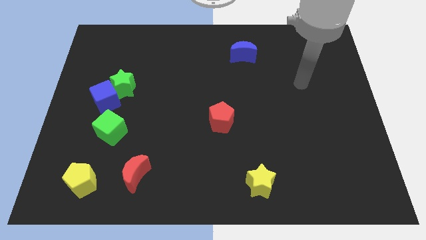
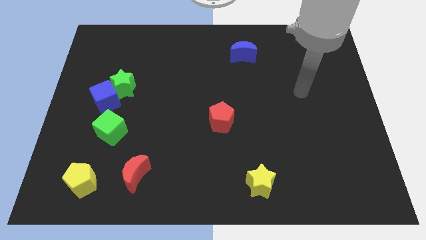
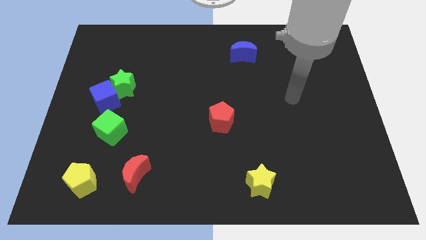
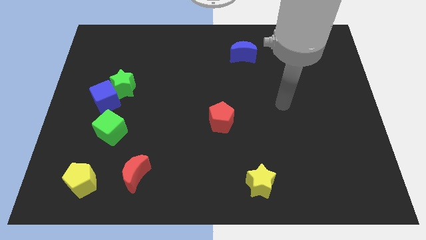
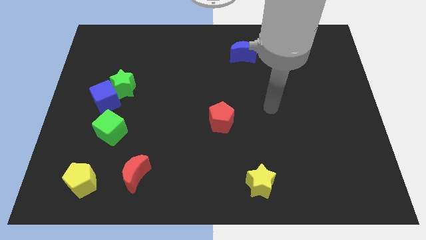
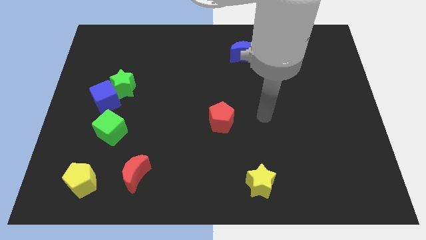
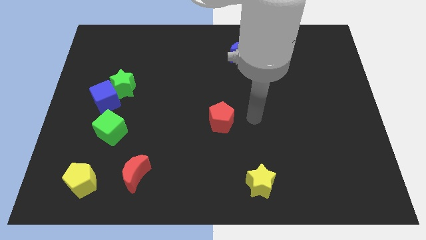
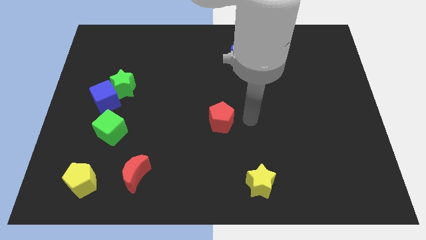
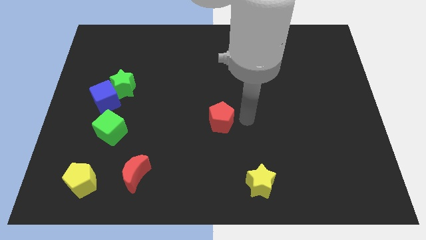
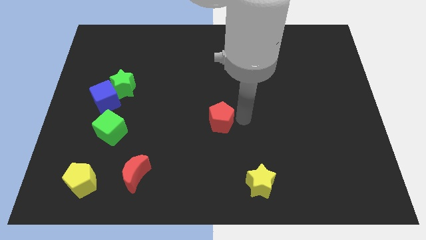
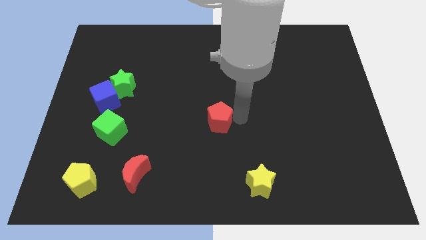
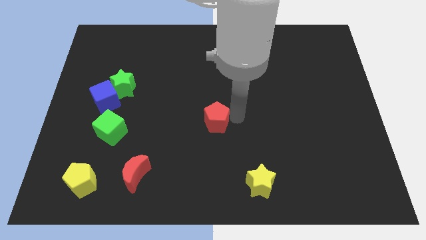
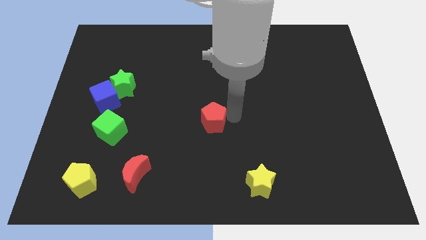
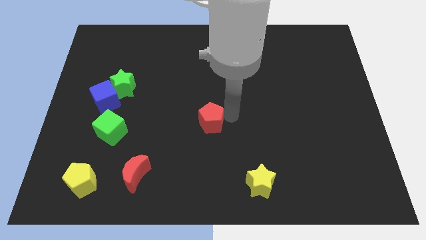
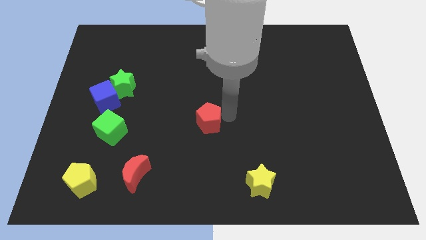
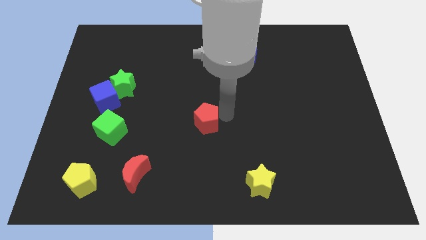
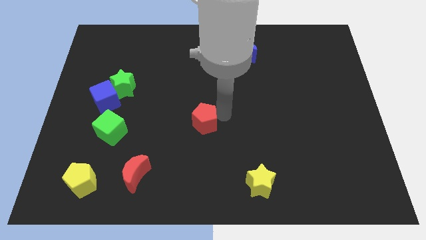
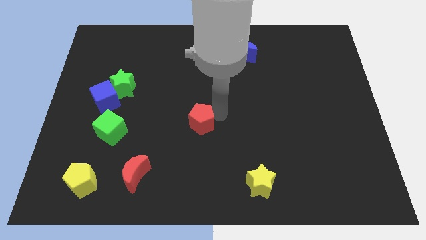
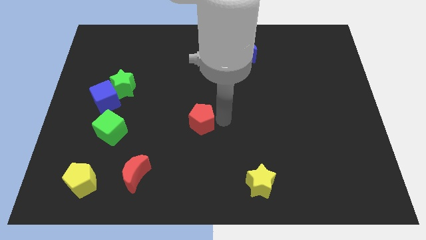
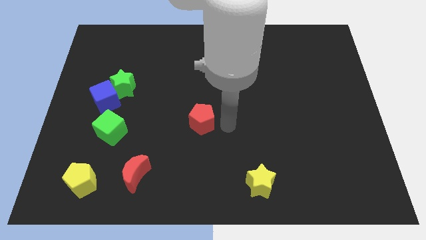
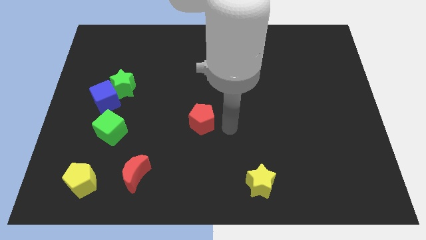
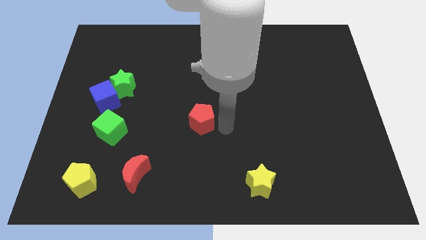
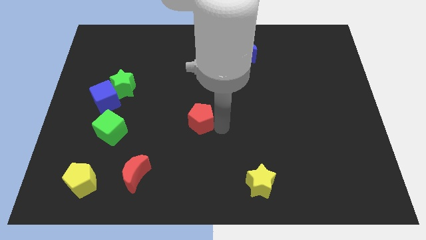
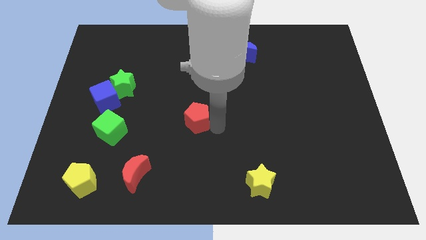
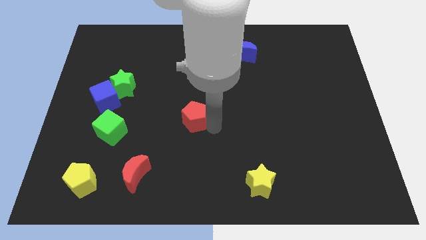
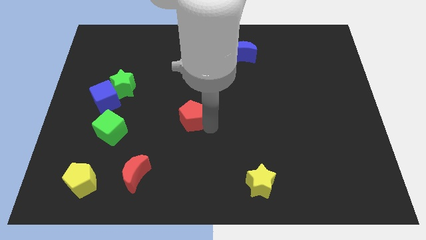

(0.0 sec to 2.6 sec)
slightly move the red pentagon to the left

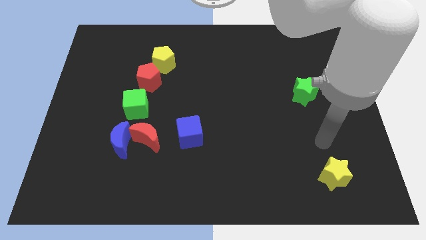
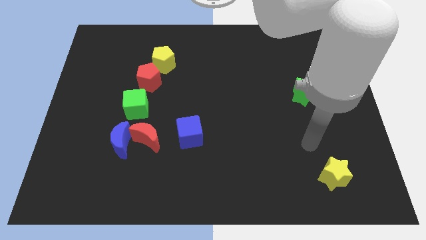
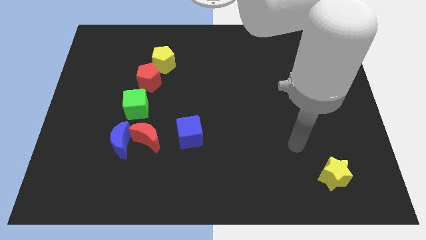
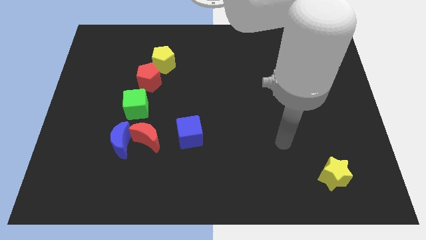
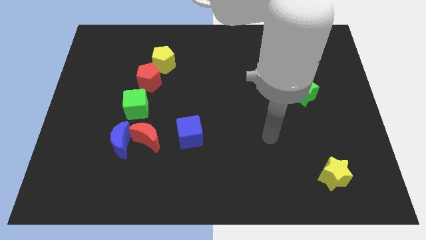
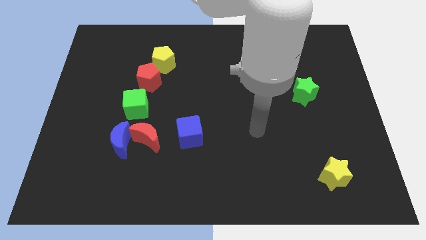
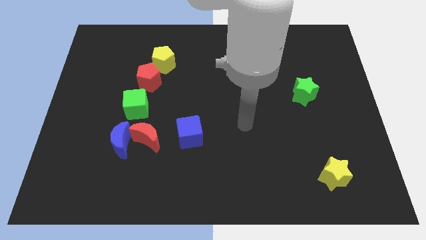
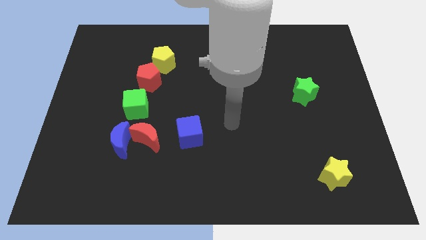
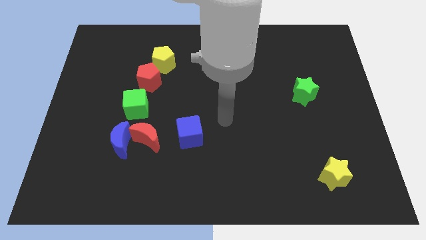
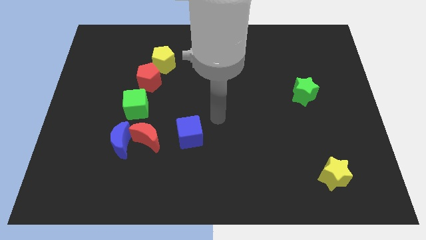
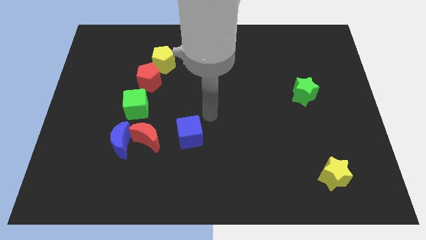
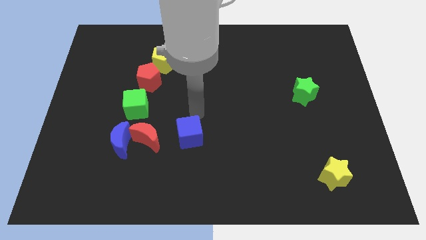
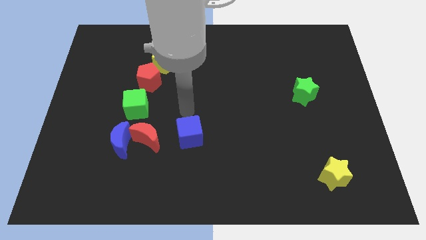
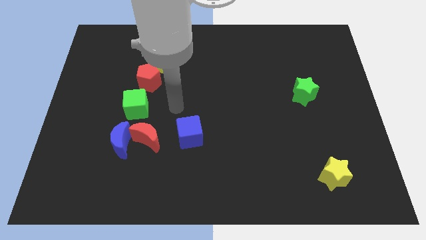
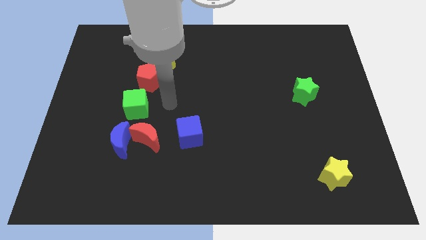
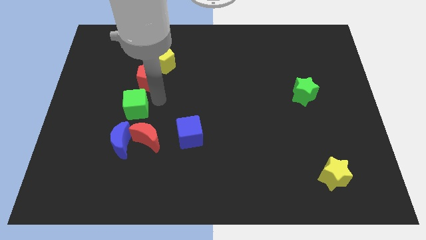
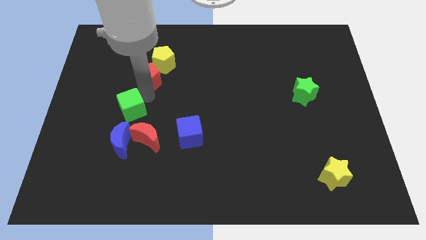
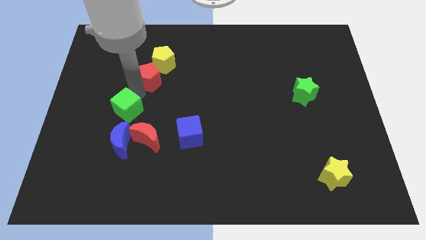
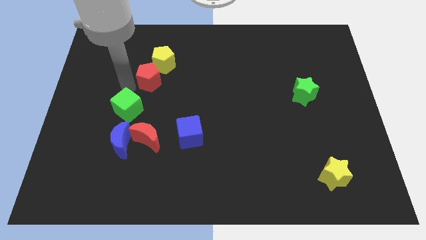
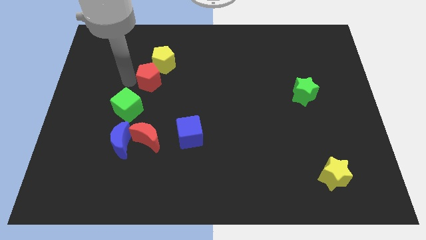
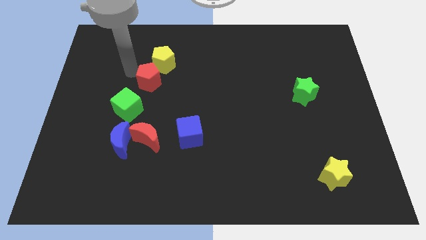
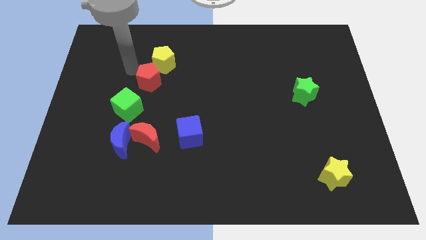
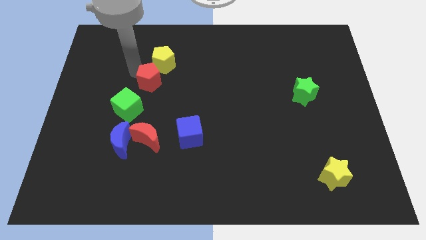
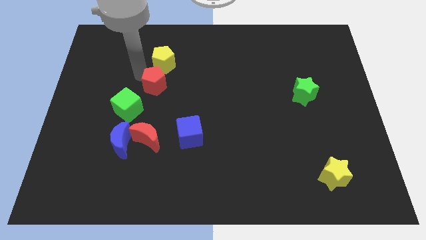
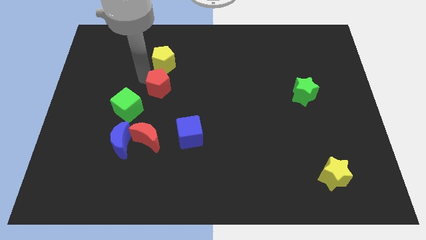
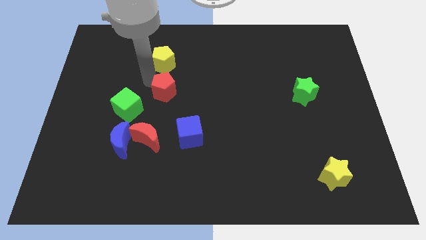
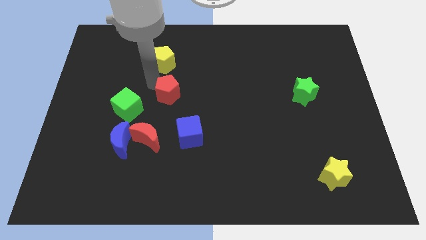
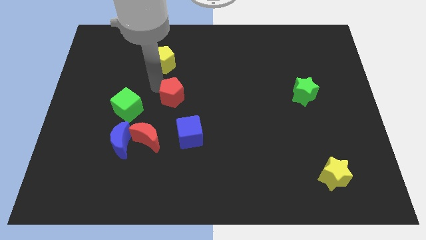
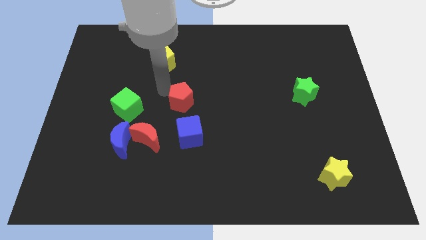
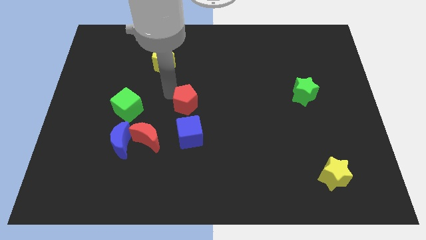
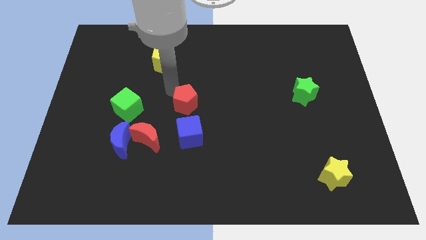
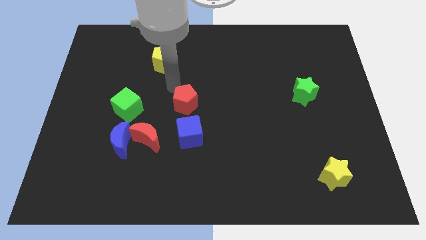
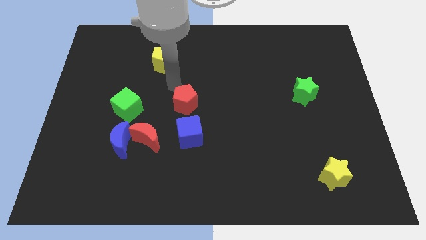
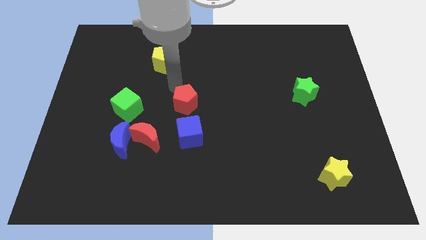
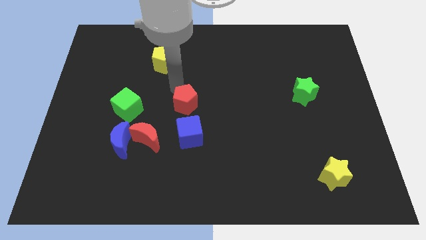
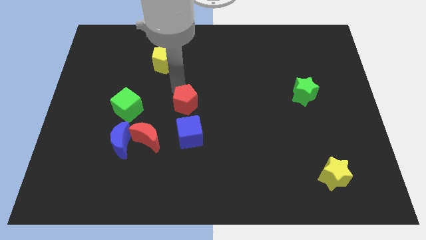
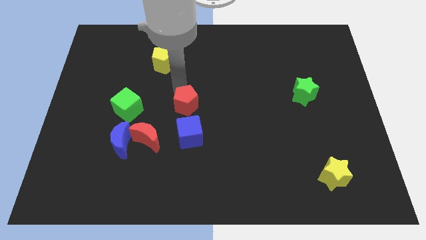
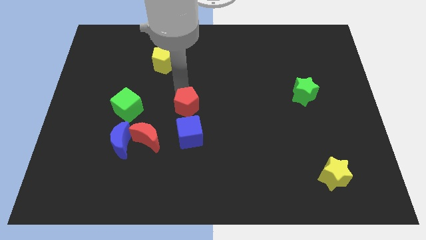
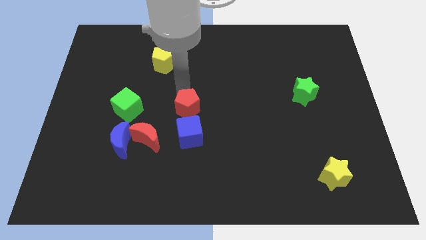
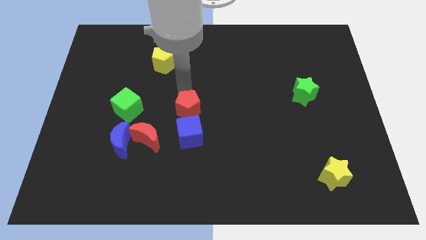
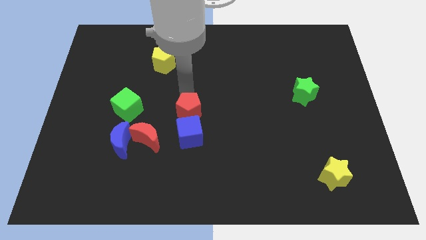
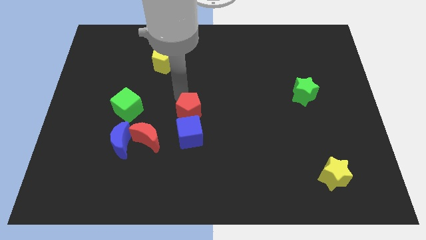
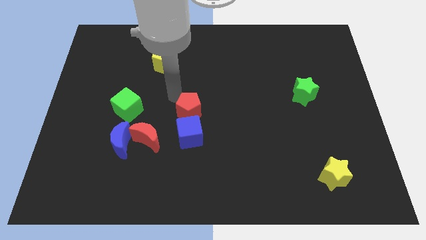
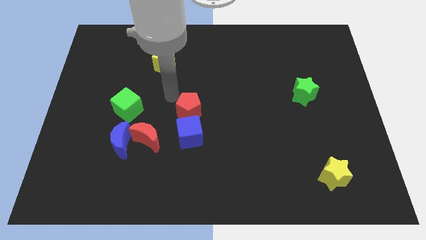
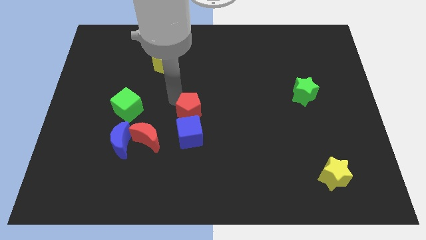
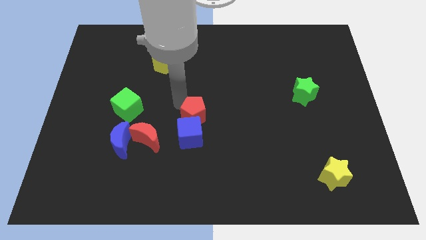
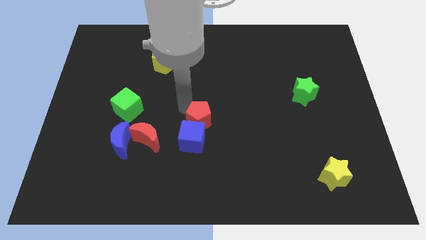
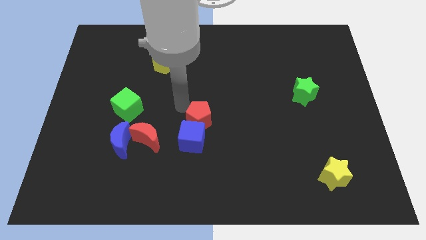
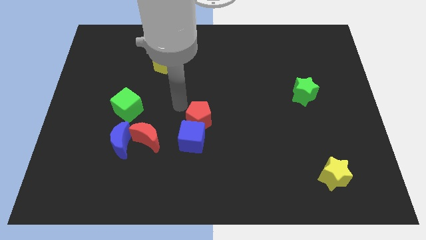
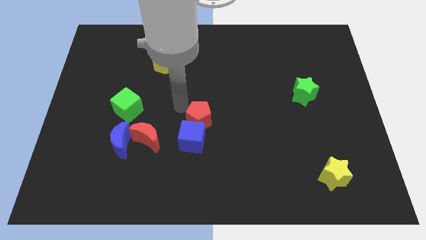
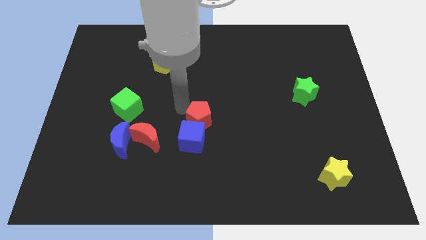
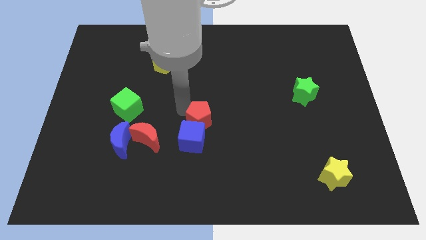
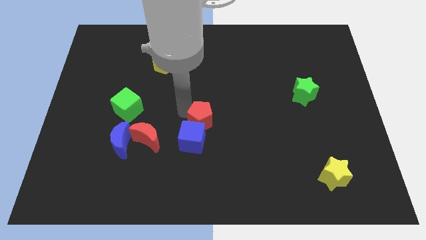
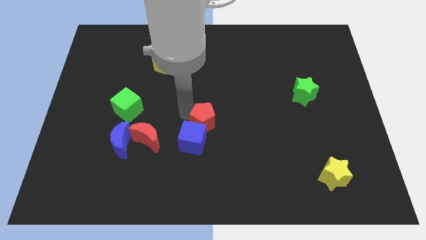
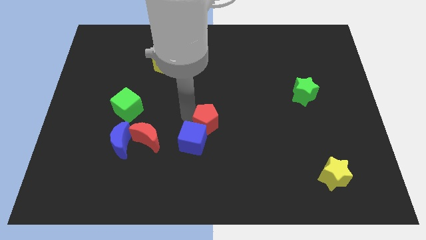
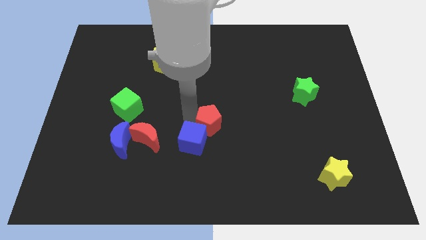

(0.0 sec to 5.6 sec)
push the red pentagon down and then to the right

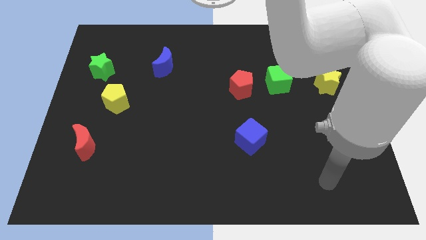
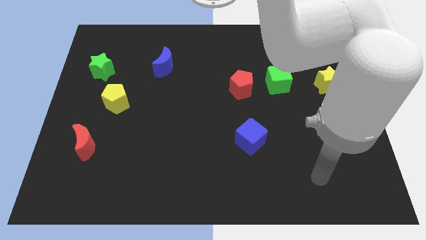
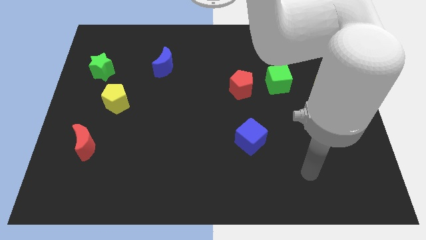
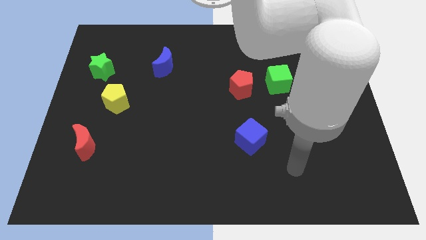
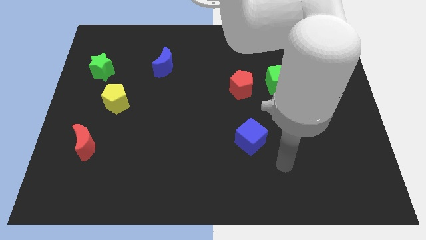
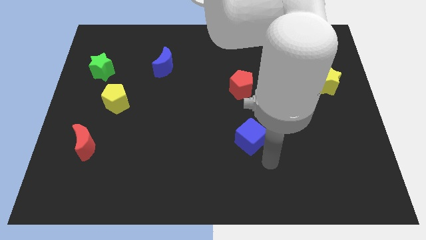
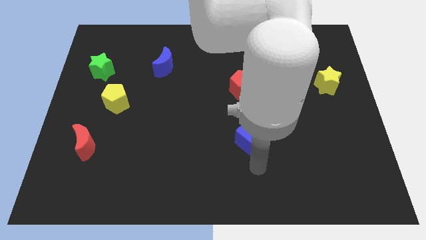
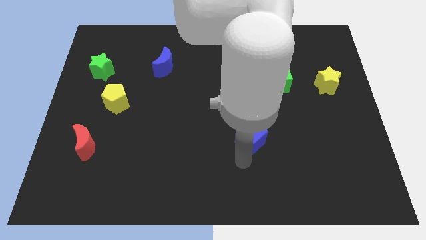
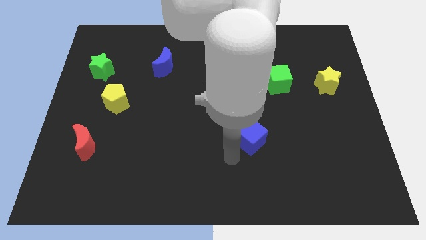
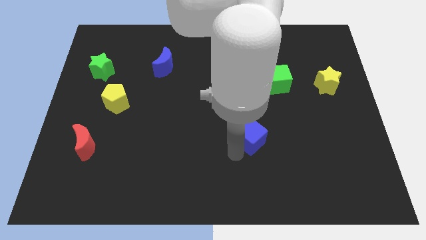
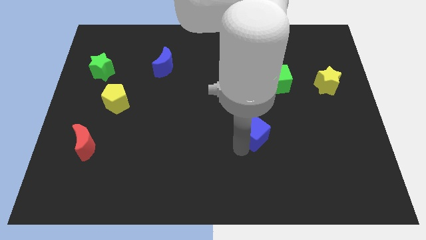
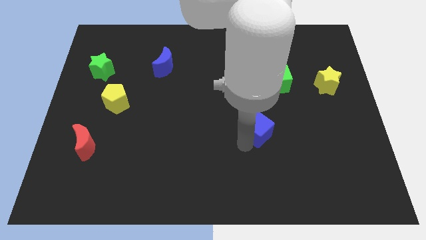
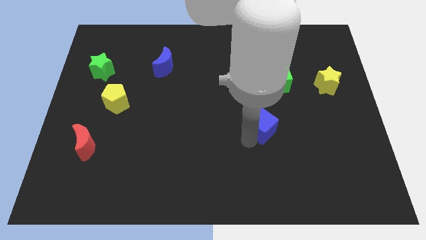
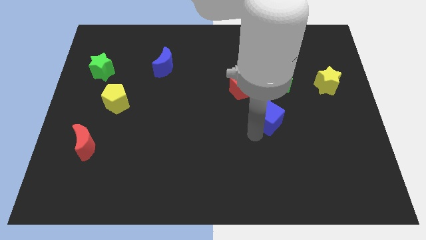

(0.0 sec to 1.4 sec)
move the blue cube diagonally upwards and to the right a little
